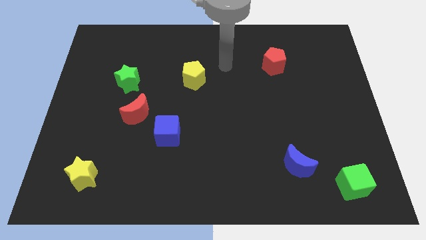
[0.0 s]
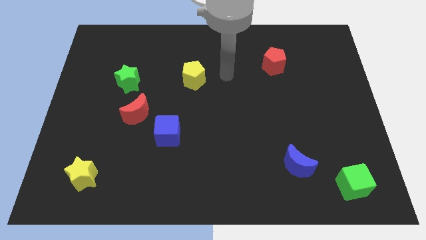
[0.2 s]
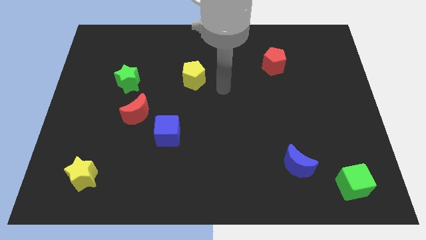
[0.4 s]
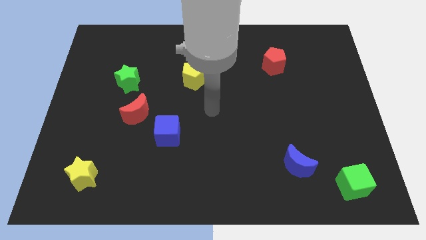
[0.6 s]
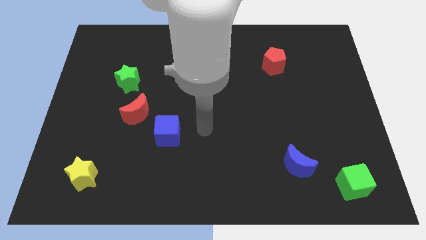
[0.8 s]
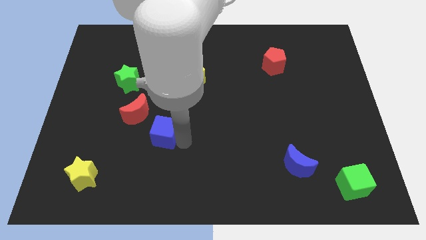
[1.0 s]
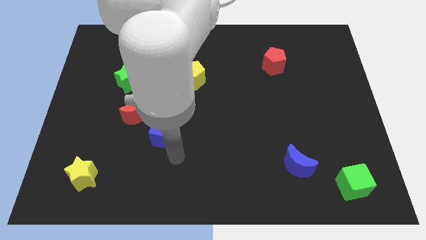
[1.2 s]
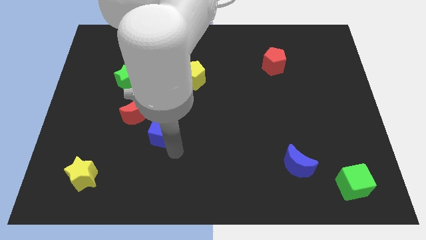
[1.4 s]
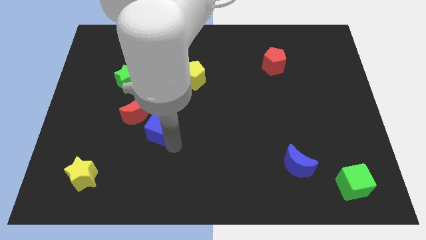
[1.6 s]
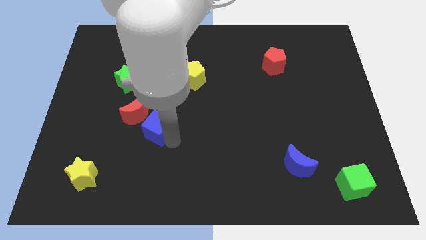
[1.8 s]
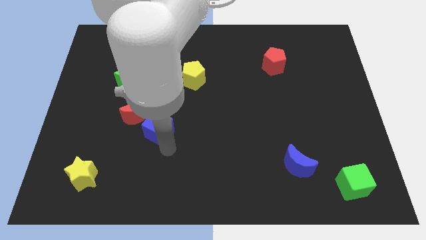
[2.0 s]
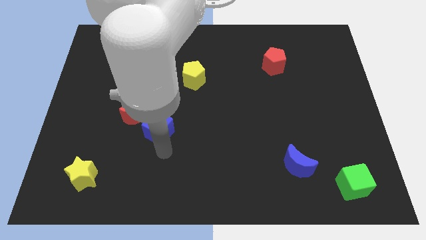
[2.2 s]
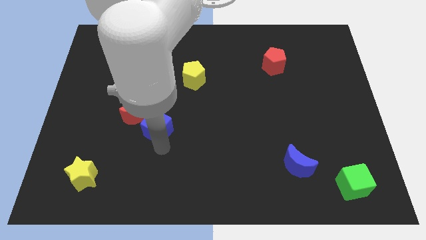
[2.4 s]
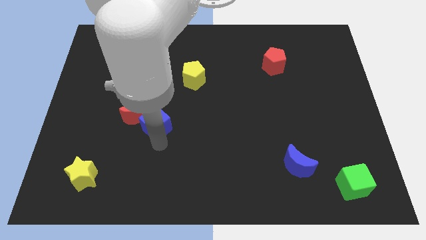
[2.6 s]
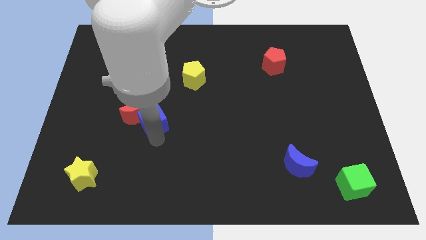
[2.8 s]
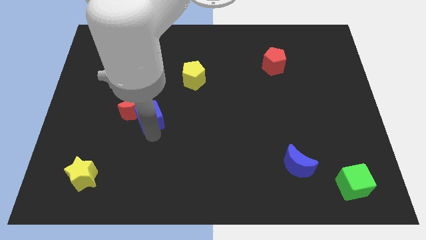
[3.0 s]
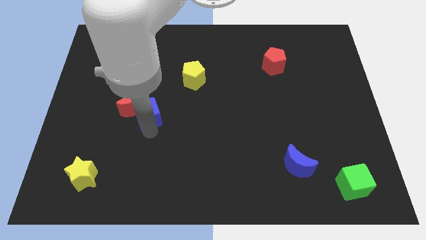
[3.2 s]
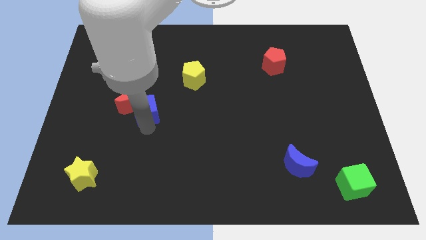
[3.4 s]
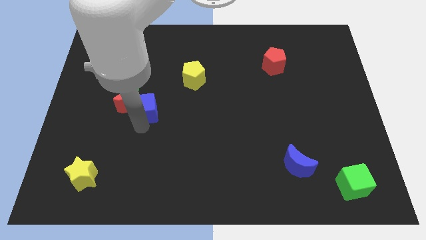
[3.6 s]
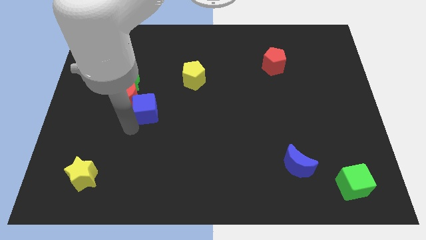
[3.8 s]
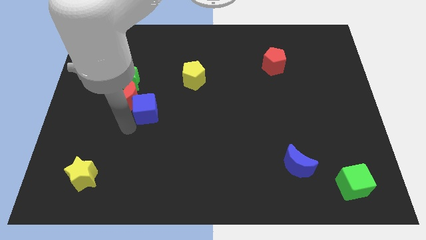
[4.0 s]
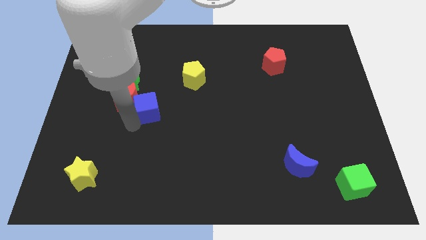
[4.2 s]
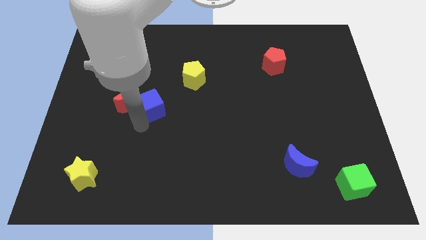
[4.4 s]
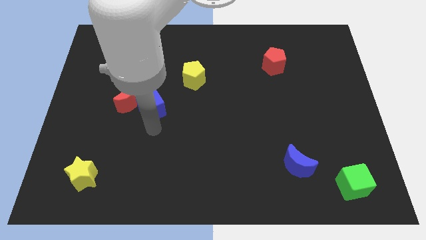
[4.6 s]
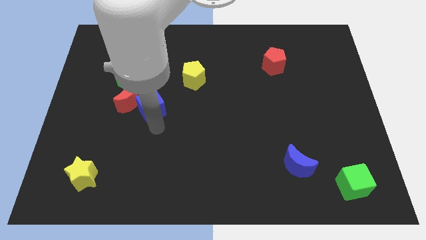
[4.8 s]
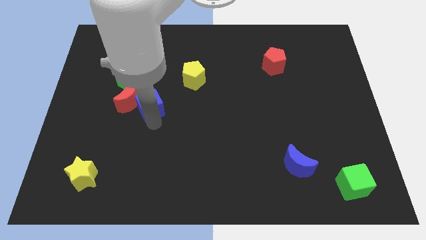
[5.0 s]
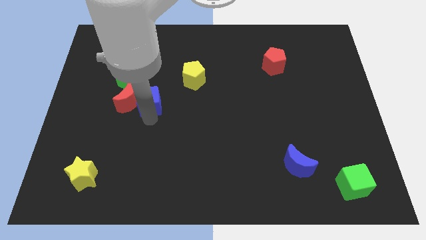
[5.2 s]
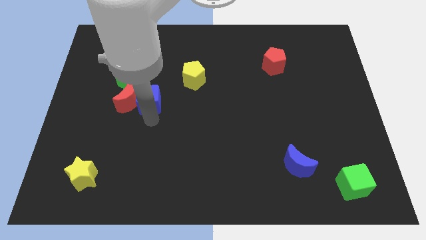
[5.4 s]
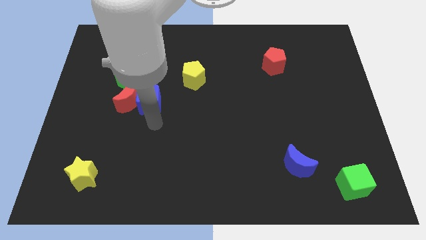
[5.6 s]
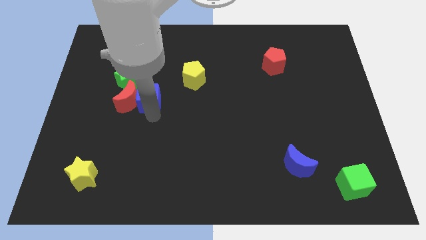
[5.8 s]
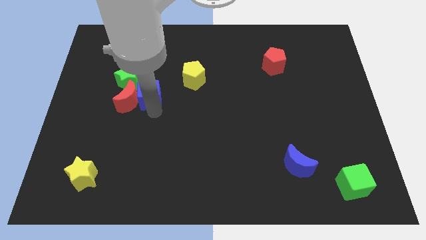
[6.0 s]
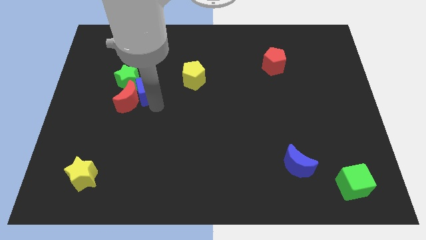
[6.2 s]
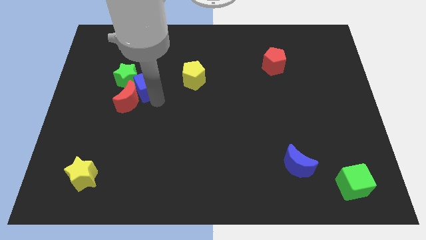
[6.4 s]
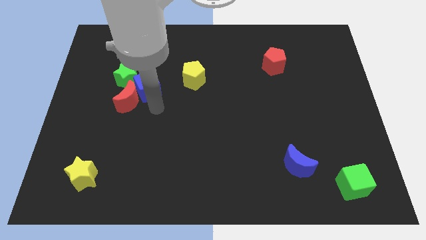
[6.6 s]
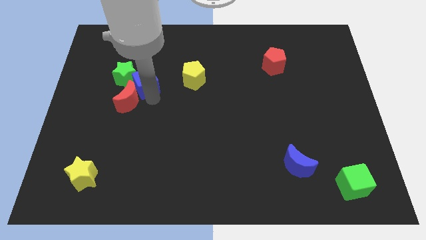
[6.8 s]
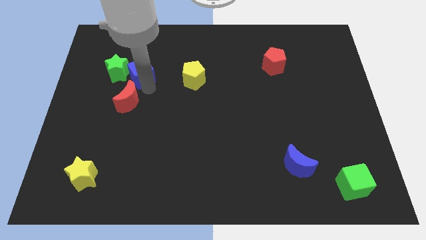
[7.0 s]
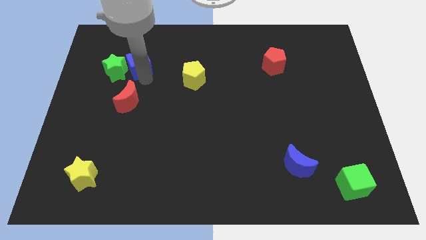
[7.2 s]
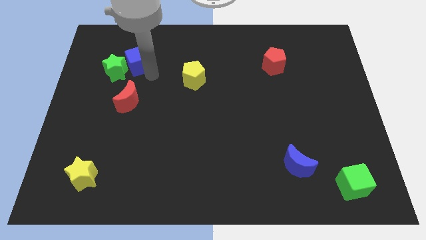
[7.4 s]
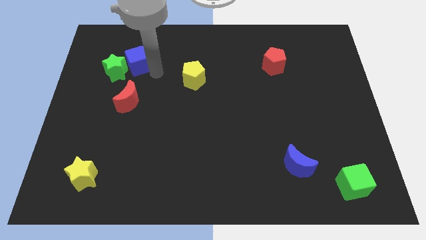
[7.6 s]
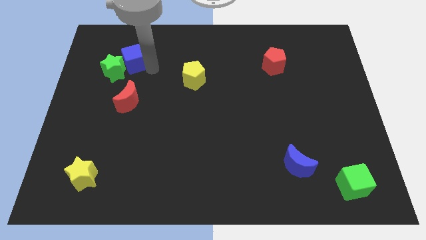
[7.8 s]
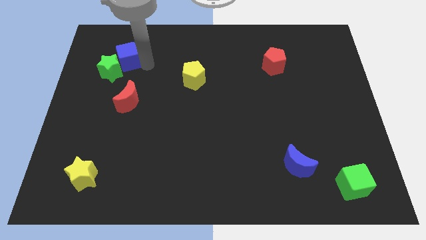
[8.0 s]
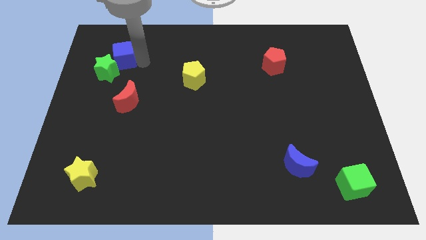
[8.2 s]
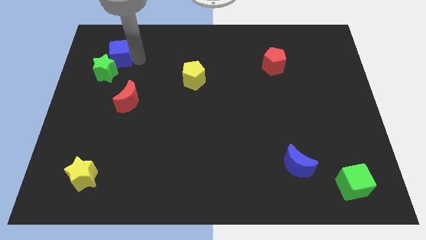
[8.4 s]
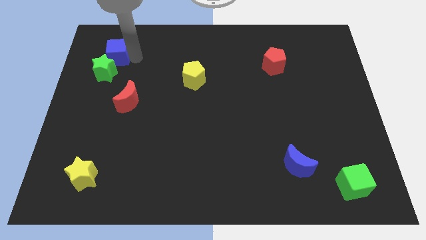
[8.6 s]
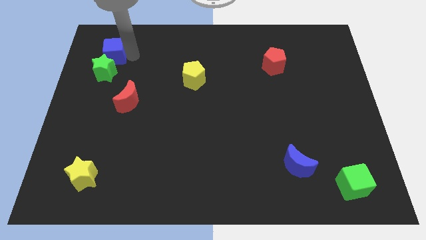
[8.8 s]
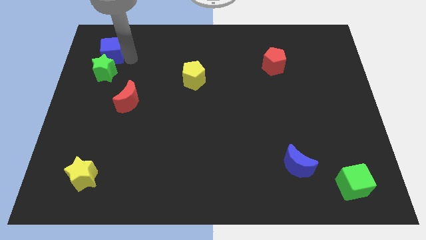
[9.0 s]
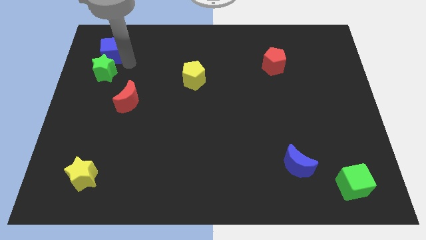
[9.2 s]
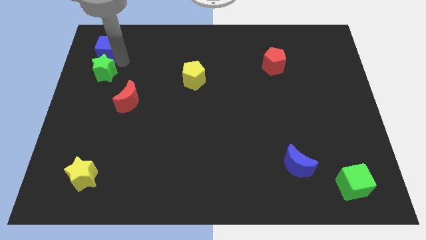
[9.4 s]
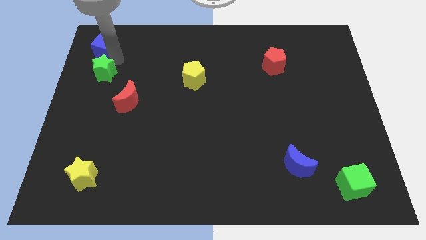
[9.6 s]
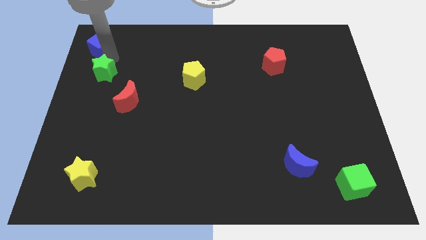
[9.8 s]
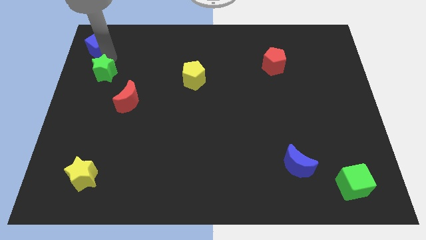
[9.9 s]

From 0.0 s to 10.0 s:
put the blue cube to the top left corner

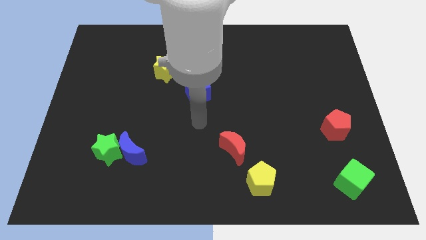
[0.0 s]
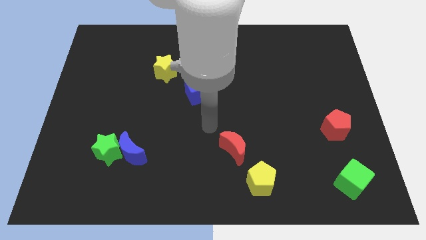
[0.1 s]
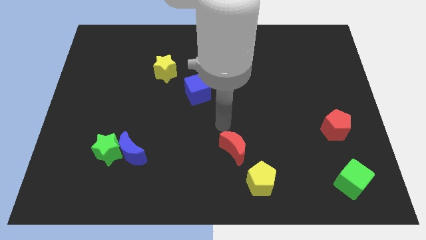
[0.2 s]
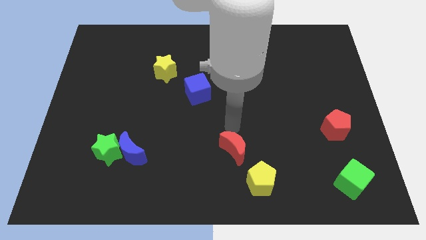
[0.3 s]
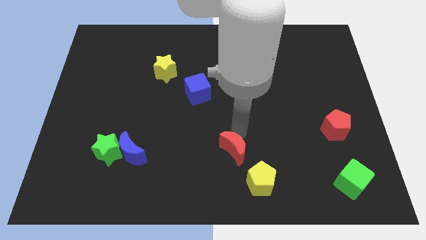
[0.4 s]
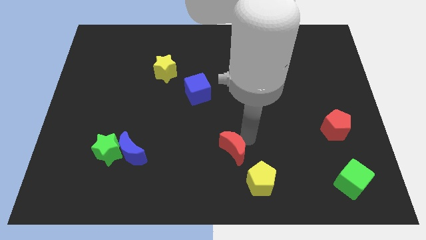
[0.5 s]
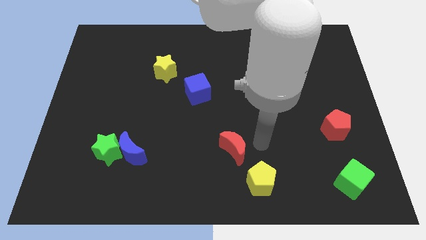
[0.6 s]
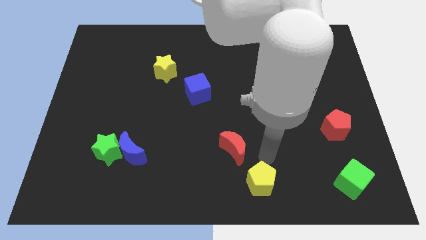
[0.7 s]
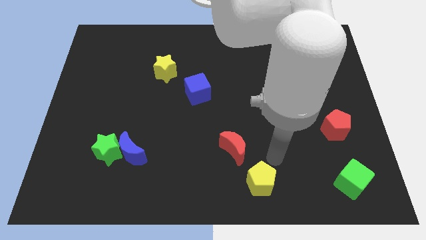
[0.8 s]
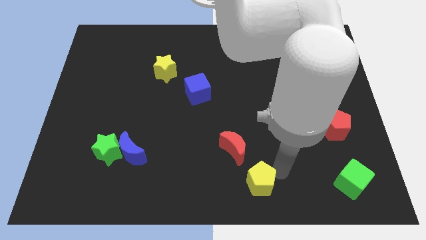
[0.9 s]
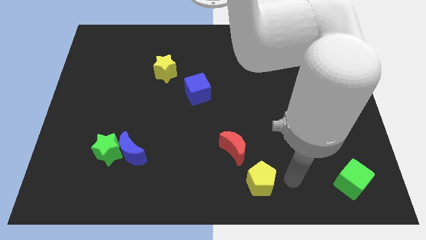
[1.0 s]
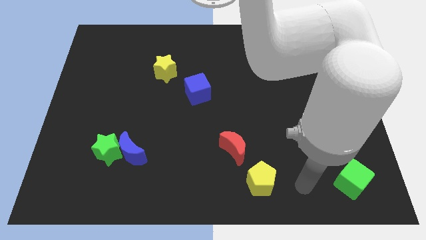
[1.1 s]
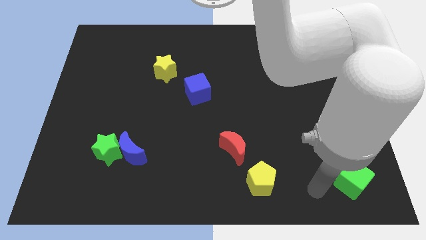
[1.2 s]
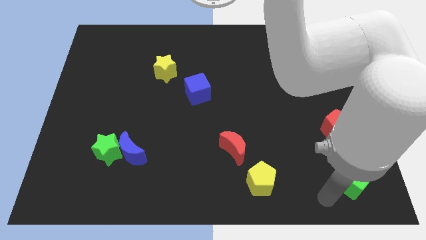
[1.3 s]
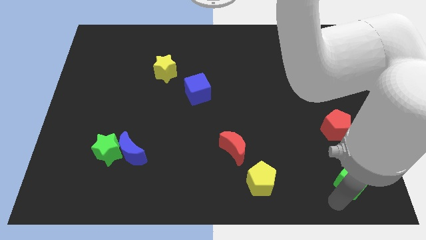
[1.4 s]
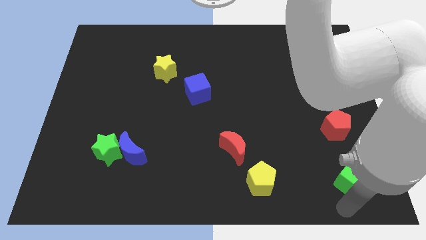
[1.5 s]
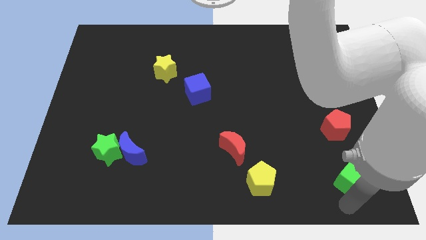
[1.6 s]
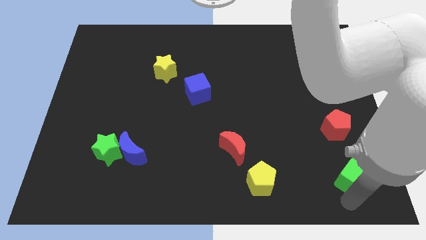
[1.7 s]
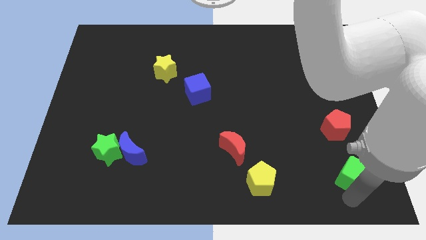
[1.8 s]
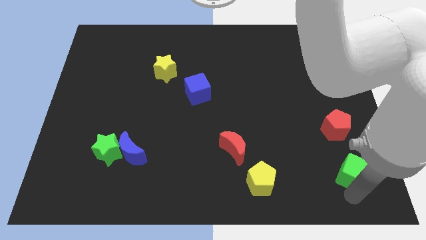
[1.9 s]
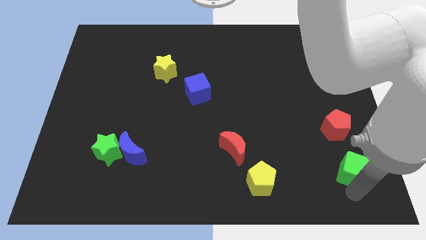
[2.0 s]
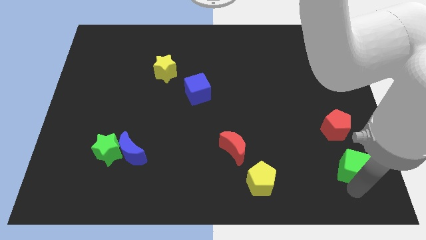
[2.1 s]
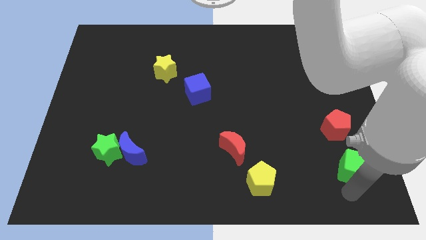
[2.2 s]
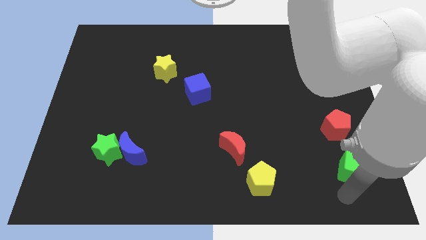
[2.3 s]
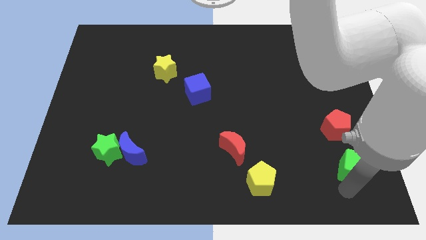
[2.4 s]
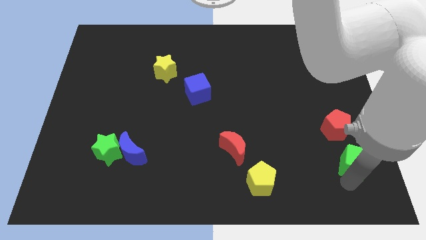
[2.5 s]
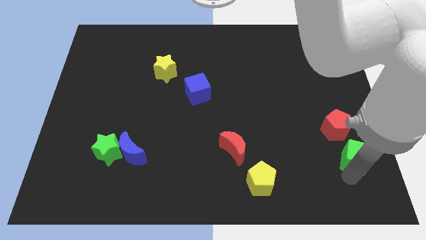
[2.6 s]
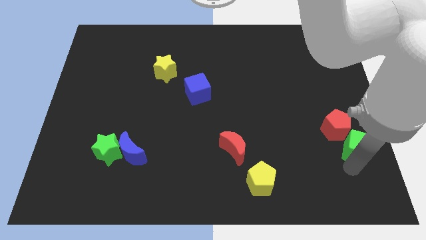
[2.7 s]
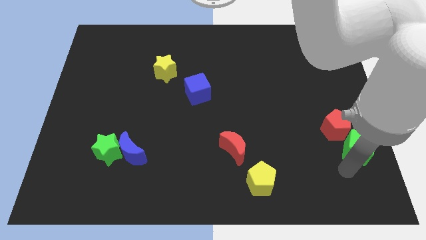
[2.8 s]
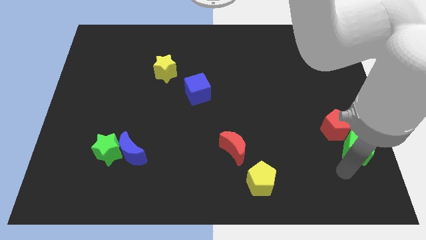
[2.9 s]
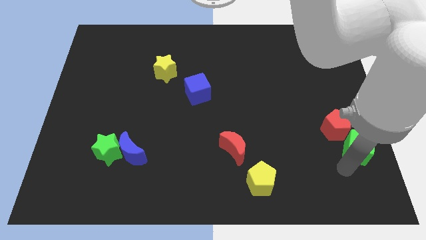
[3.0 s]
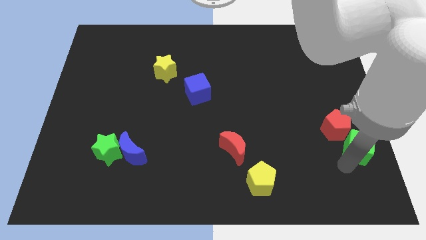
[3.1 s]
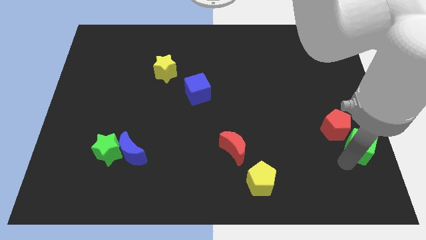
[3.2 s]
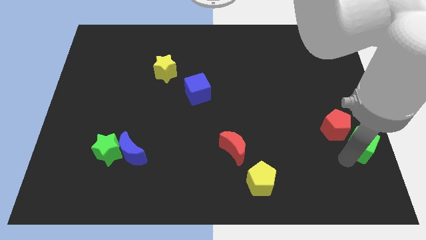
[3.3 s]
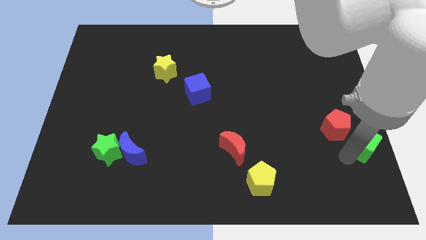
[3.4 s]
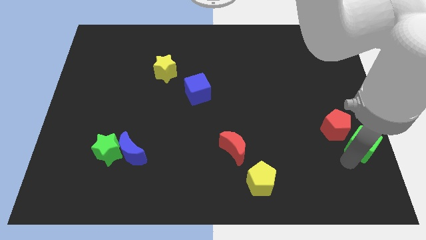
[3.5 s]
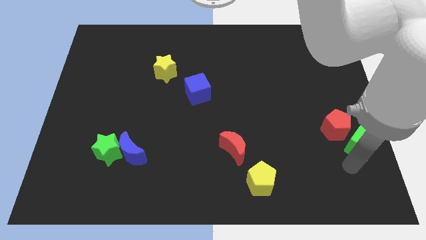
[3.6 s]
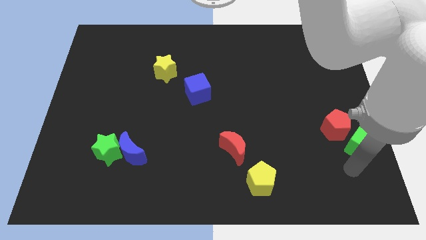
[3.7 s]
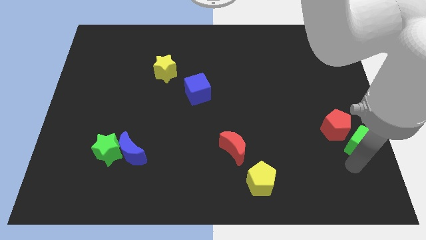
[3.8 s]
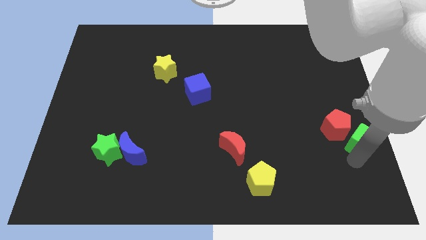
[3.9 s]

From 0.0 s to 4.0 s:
move the green cube to the right side of the board
